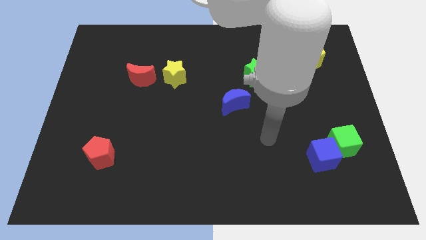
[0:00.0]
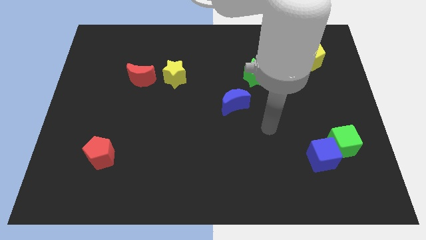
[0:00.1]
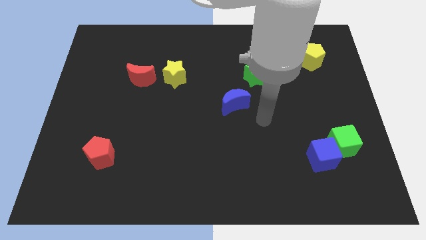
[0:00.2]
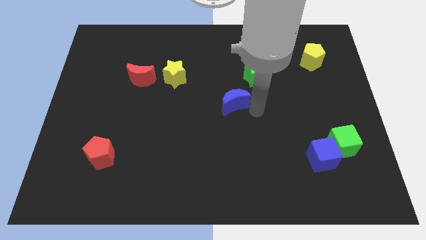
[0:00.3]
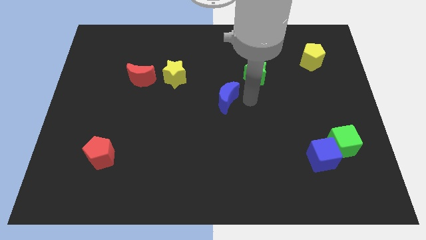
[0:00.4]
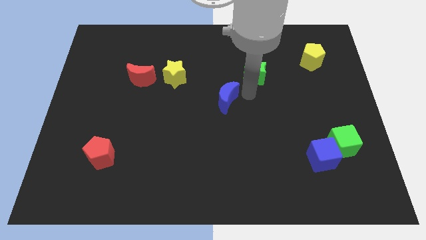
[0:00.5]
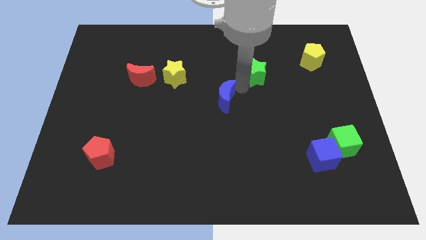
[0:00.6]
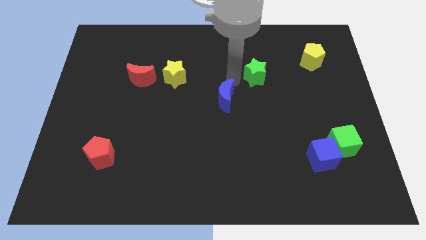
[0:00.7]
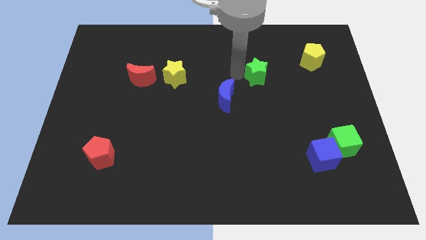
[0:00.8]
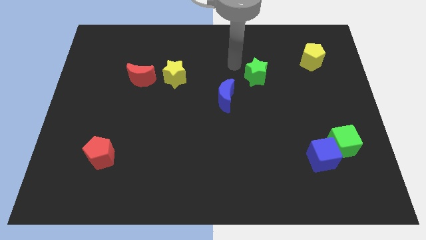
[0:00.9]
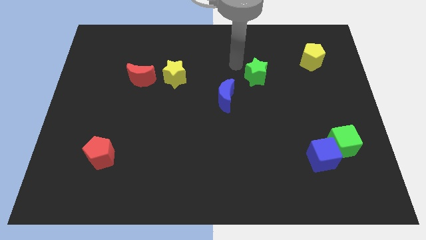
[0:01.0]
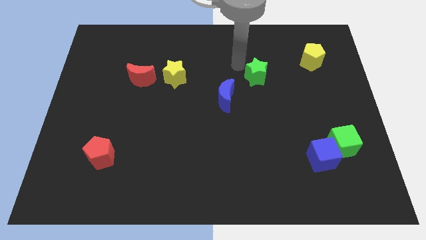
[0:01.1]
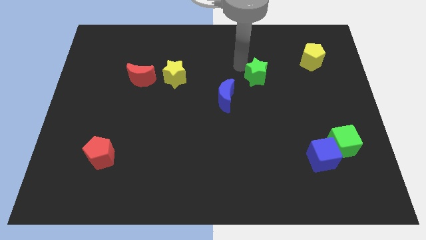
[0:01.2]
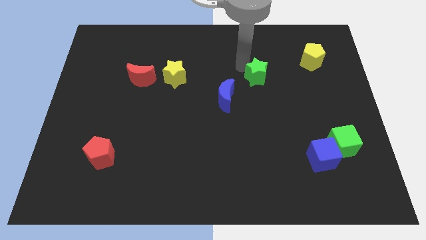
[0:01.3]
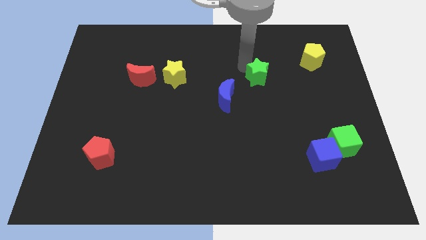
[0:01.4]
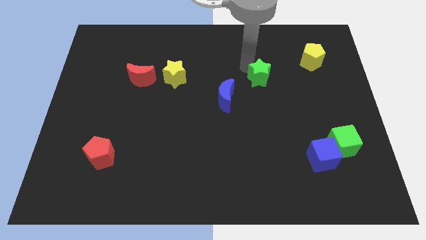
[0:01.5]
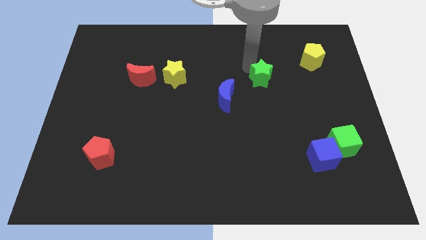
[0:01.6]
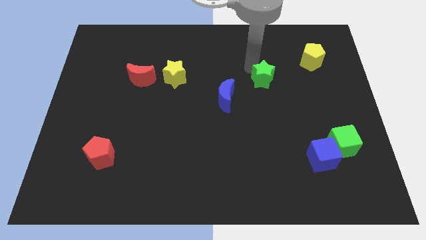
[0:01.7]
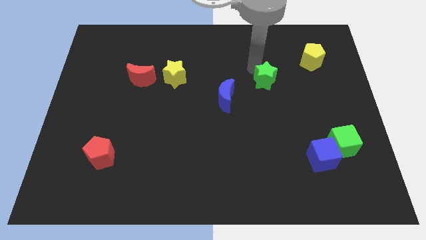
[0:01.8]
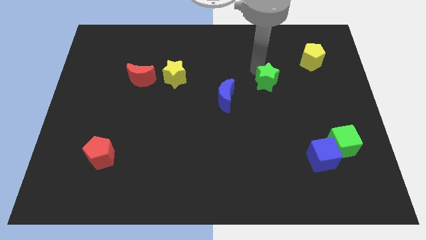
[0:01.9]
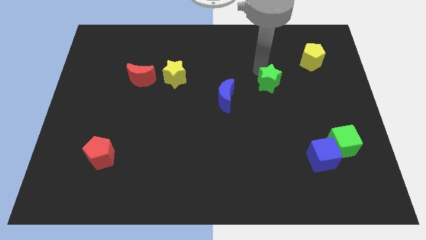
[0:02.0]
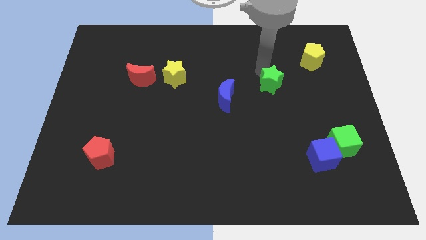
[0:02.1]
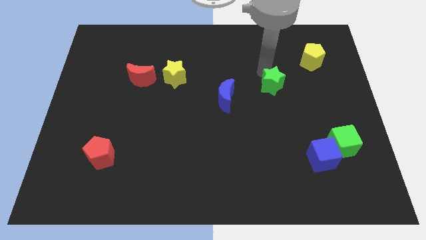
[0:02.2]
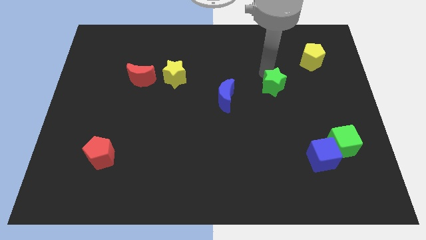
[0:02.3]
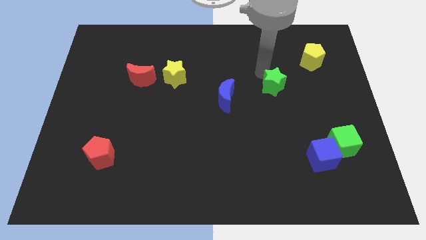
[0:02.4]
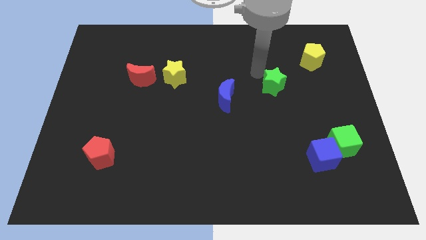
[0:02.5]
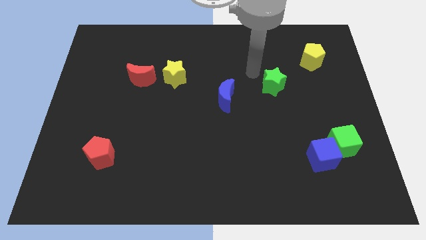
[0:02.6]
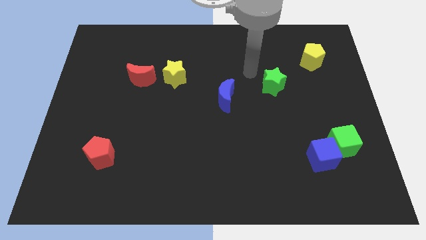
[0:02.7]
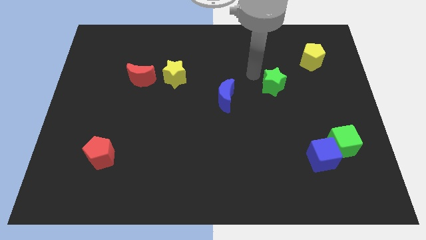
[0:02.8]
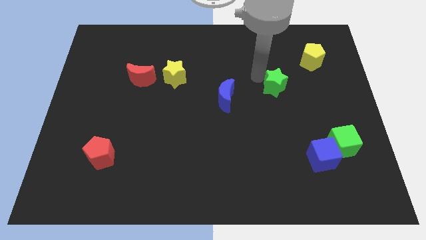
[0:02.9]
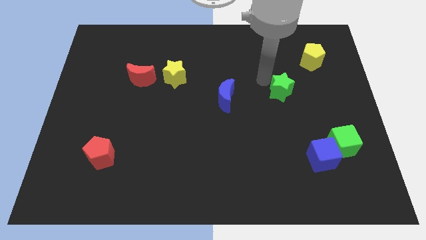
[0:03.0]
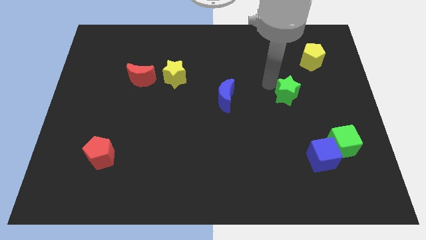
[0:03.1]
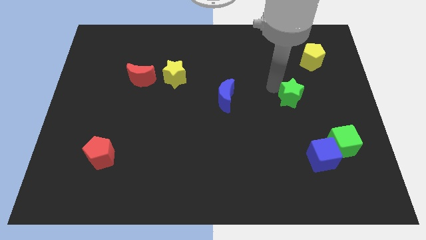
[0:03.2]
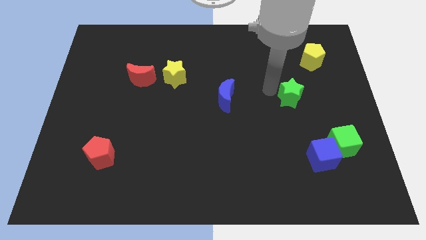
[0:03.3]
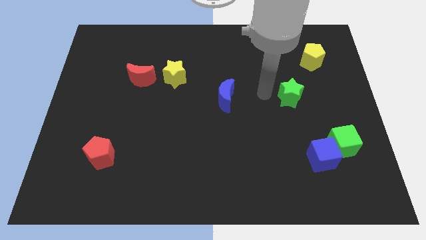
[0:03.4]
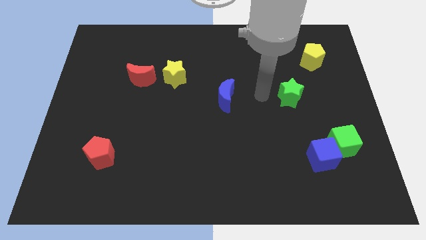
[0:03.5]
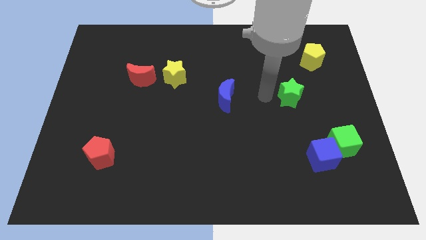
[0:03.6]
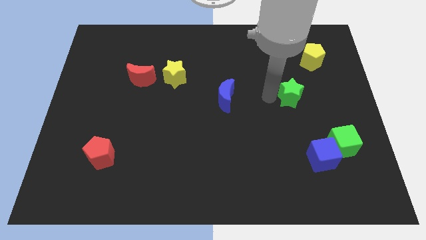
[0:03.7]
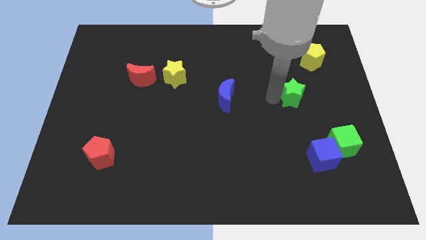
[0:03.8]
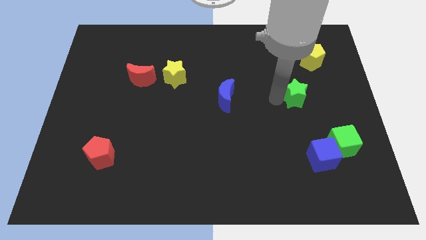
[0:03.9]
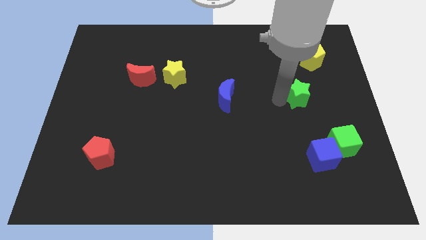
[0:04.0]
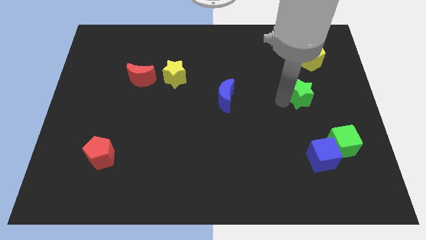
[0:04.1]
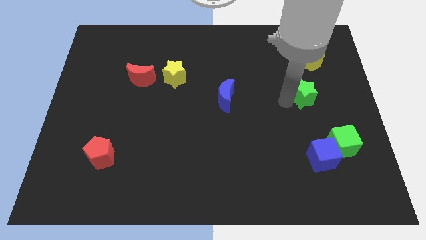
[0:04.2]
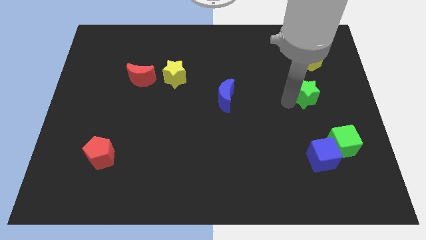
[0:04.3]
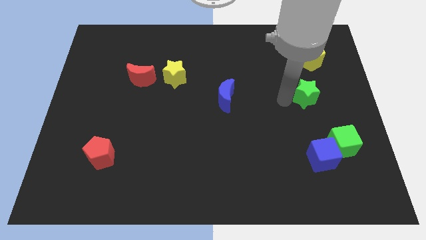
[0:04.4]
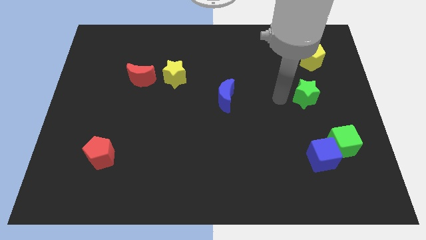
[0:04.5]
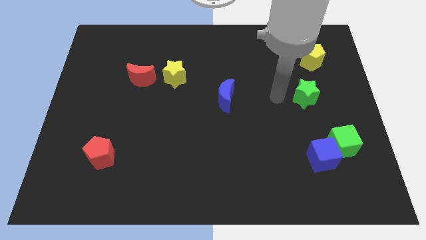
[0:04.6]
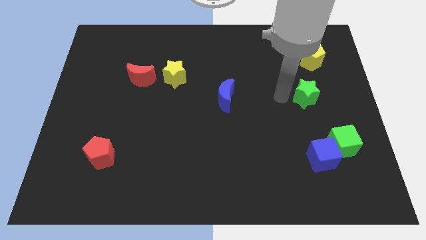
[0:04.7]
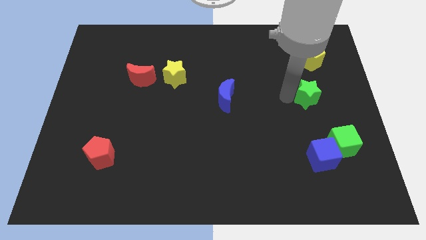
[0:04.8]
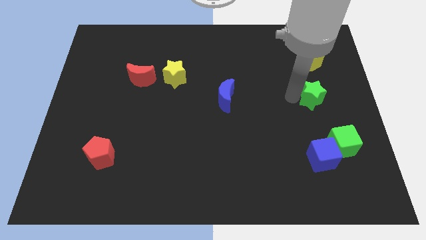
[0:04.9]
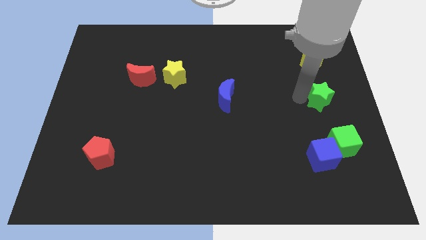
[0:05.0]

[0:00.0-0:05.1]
move the green star to the right side

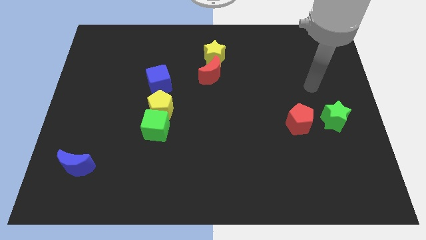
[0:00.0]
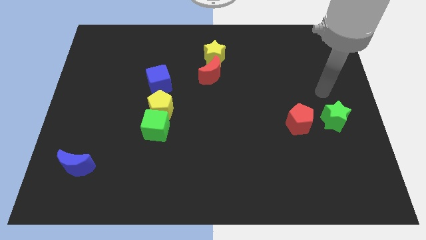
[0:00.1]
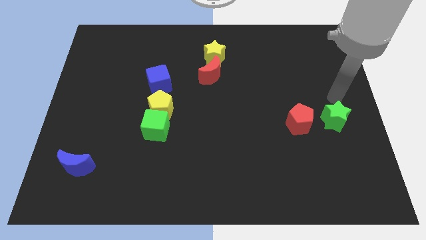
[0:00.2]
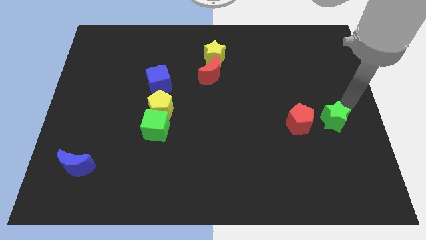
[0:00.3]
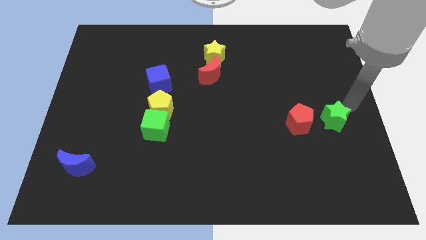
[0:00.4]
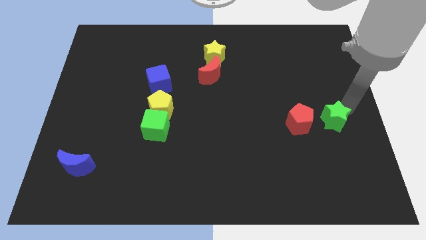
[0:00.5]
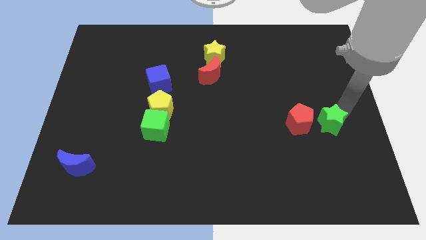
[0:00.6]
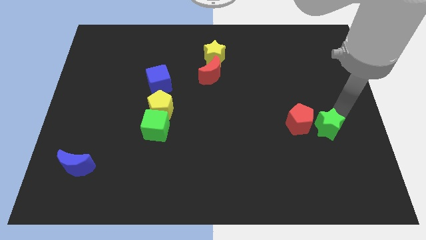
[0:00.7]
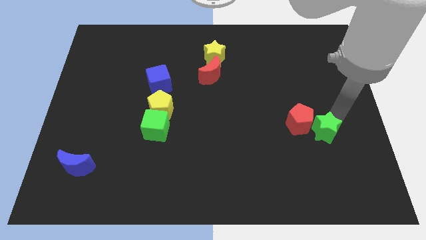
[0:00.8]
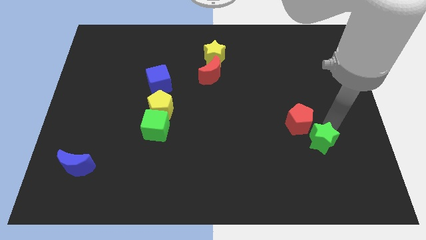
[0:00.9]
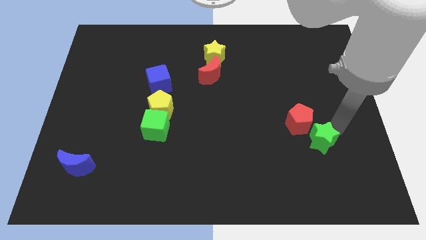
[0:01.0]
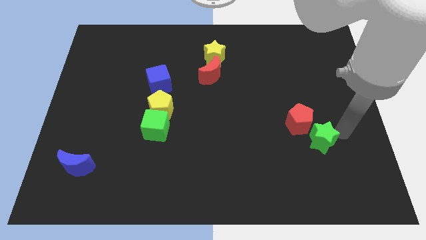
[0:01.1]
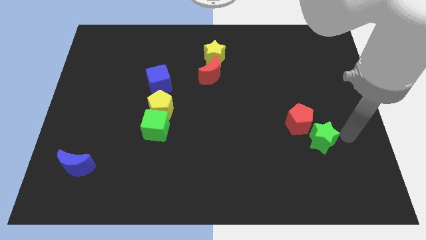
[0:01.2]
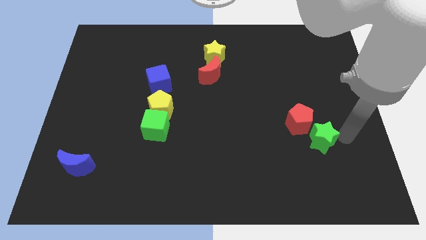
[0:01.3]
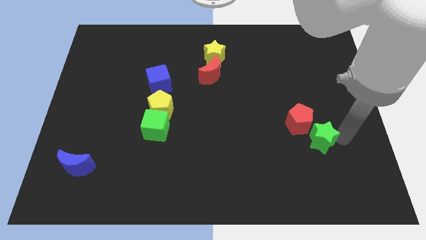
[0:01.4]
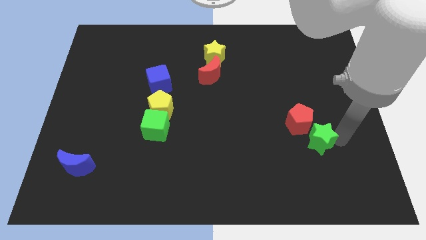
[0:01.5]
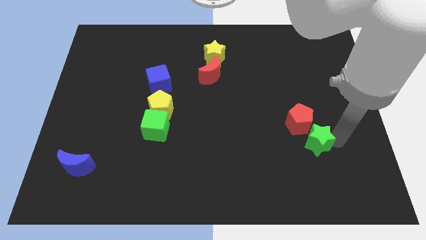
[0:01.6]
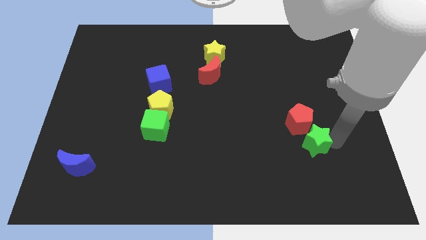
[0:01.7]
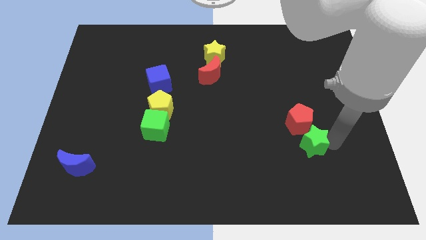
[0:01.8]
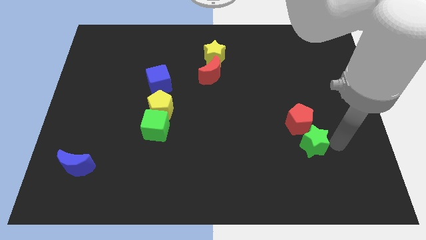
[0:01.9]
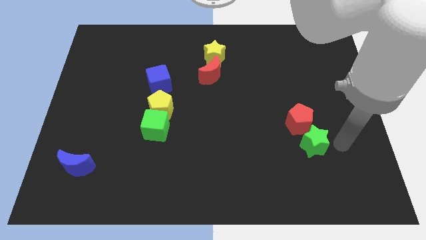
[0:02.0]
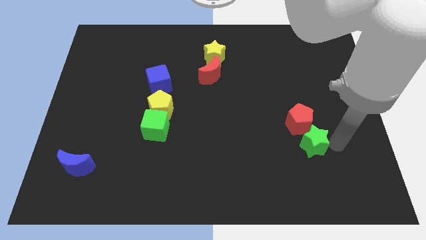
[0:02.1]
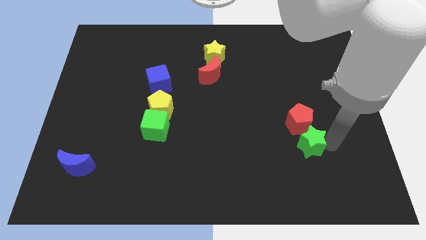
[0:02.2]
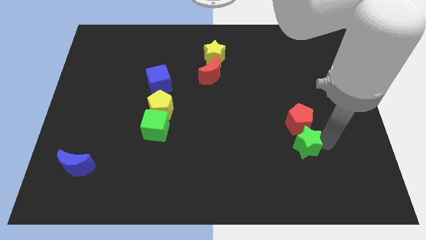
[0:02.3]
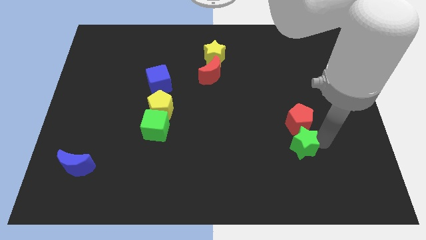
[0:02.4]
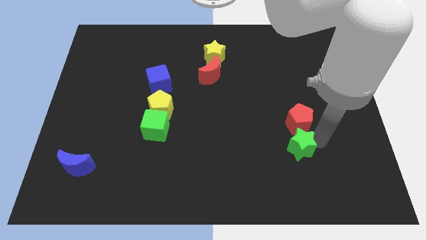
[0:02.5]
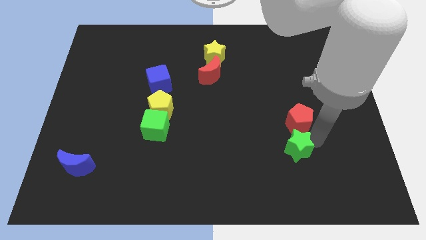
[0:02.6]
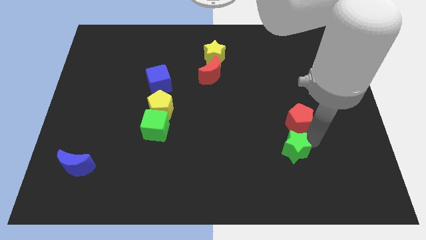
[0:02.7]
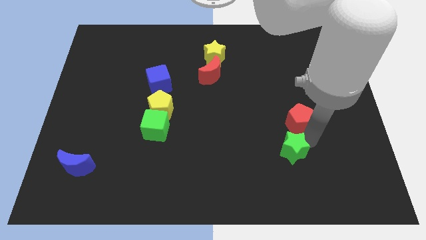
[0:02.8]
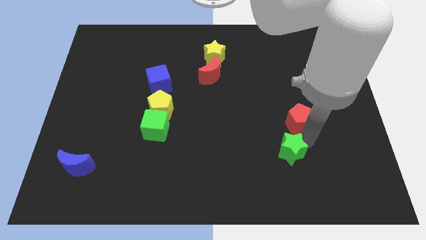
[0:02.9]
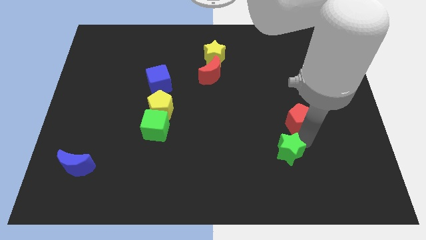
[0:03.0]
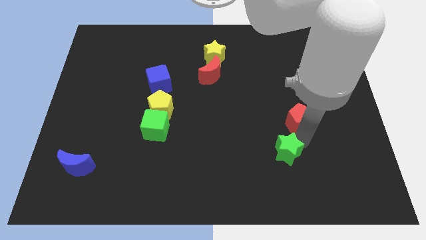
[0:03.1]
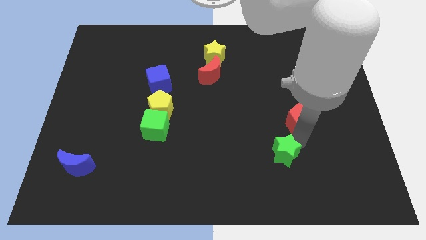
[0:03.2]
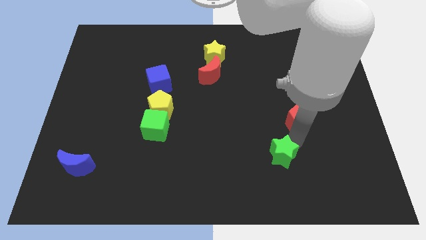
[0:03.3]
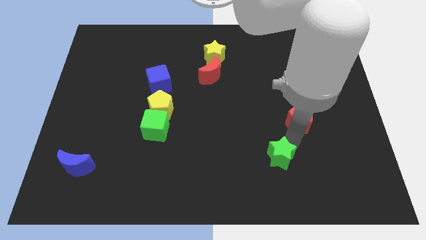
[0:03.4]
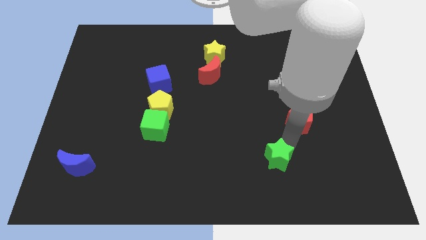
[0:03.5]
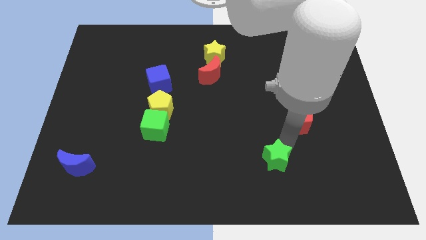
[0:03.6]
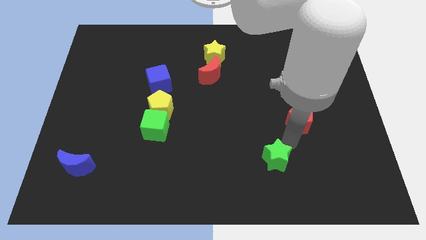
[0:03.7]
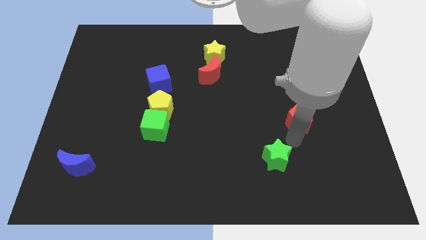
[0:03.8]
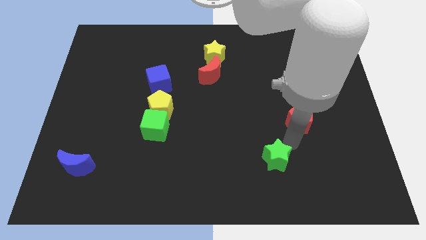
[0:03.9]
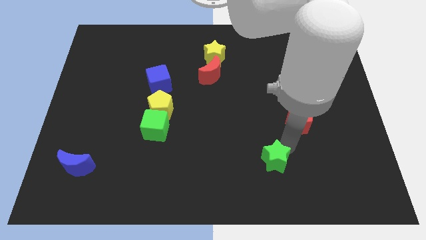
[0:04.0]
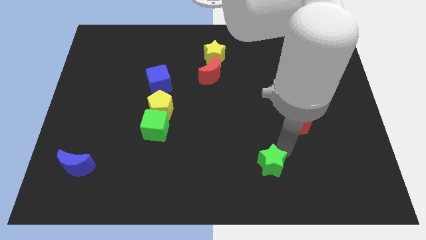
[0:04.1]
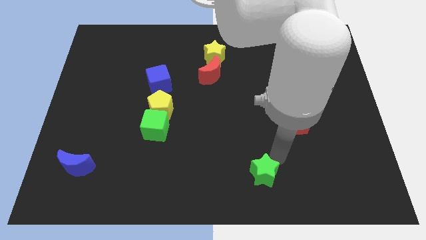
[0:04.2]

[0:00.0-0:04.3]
push the green star to the bottom side
